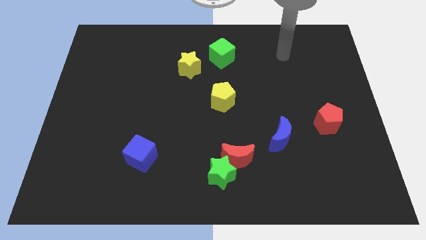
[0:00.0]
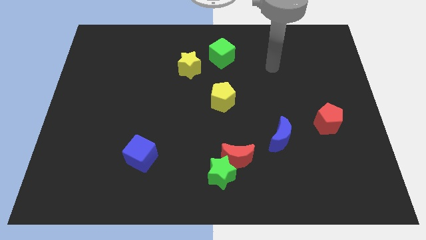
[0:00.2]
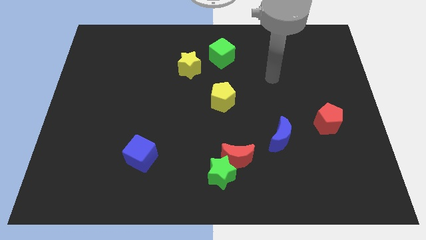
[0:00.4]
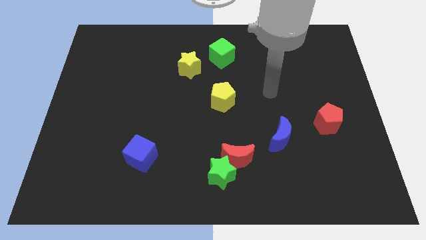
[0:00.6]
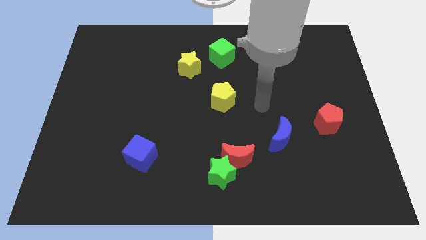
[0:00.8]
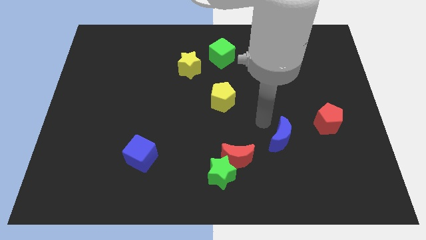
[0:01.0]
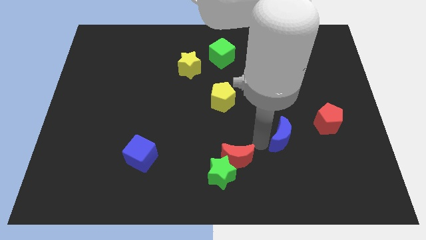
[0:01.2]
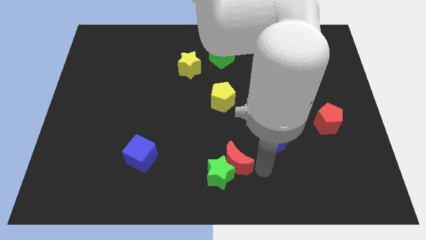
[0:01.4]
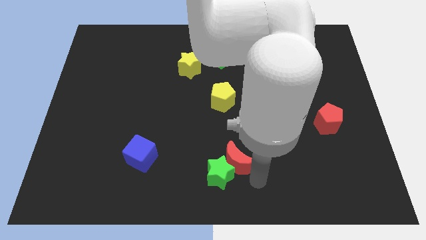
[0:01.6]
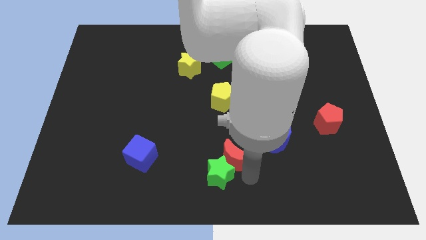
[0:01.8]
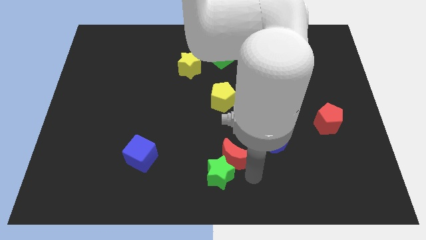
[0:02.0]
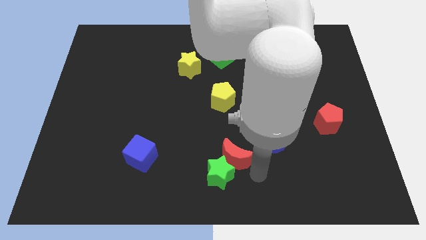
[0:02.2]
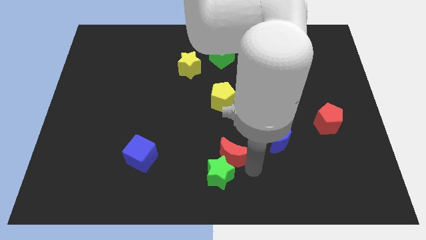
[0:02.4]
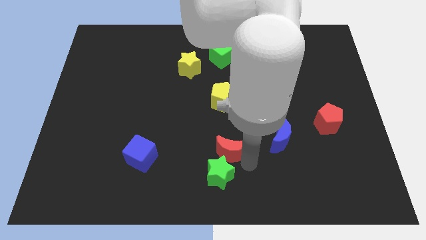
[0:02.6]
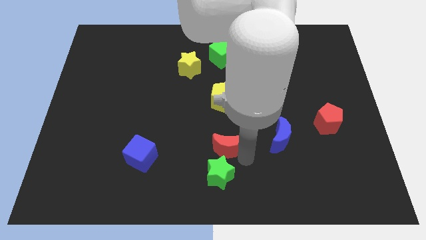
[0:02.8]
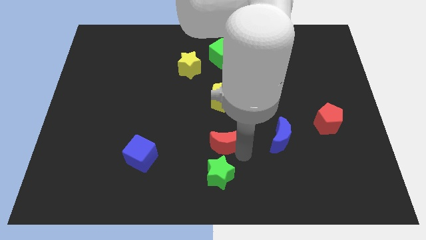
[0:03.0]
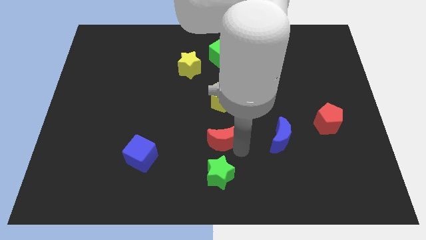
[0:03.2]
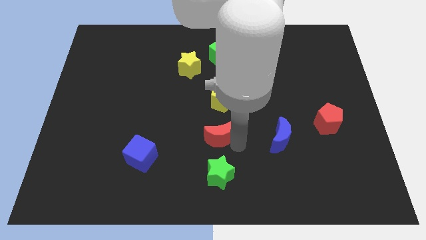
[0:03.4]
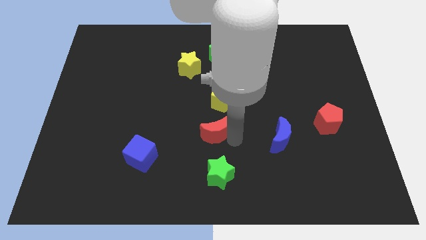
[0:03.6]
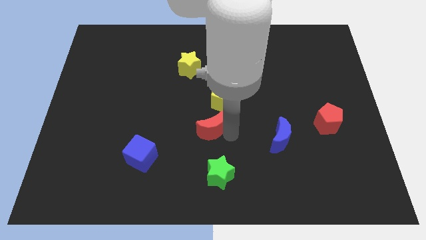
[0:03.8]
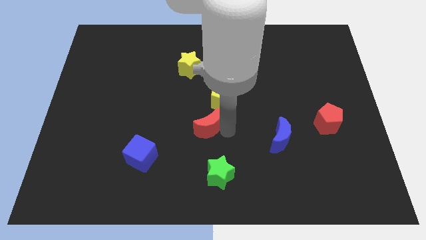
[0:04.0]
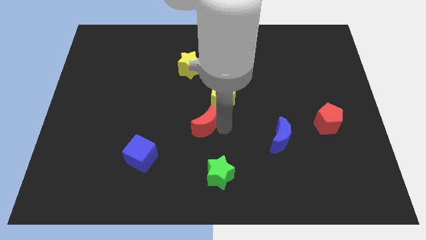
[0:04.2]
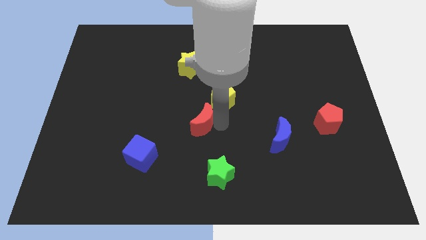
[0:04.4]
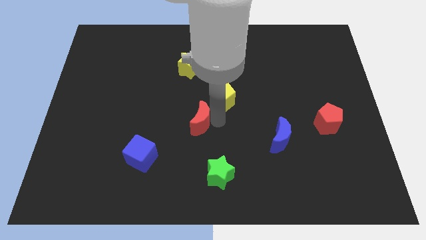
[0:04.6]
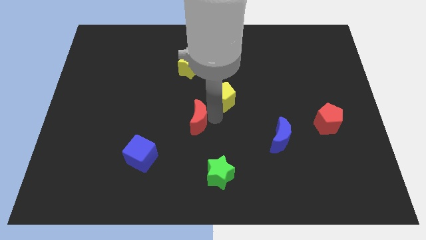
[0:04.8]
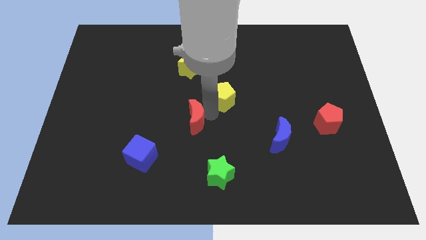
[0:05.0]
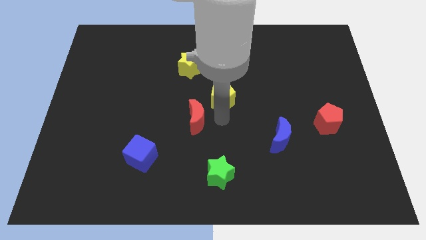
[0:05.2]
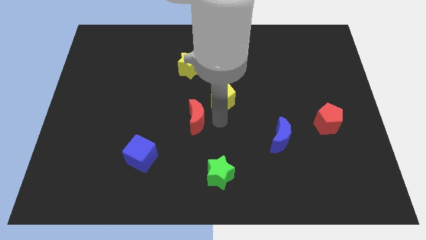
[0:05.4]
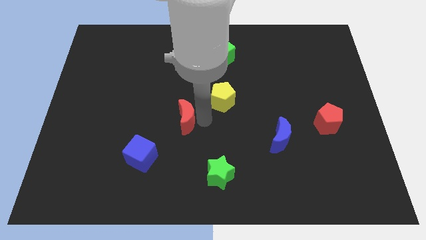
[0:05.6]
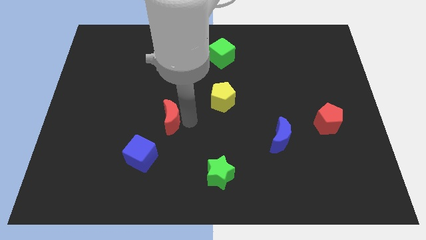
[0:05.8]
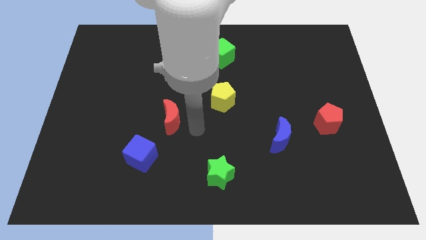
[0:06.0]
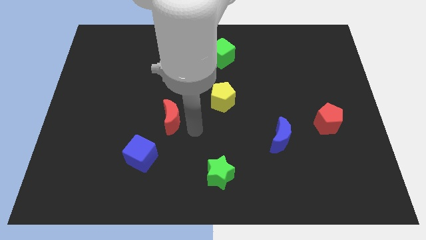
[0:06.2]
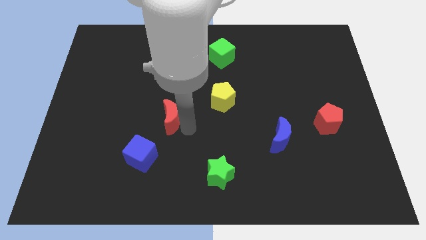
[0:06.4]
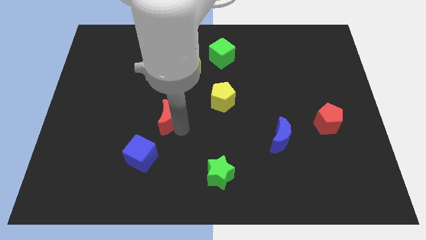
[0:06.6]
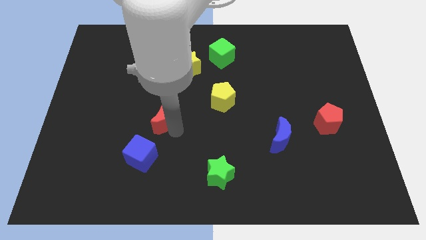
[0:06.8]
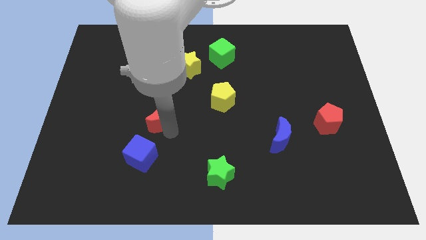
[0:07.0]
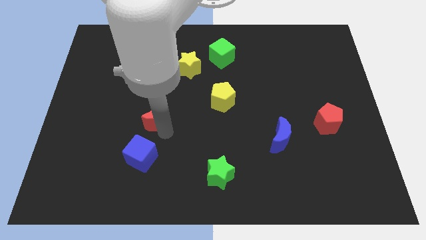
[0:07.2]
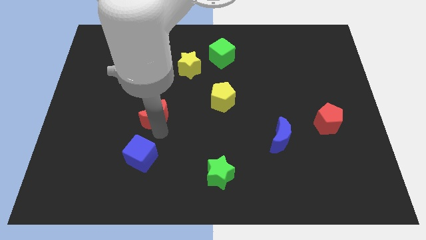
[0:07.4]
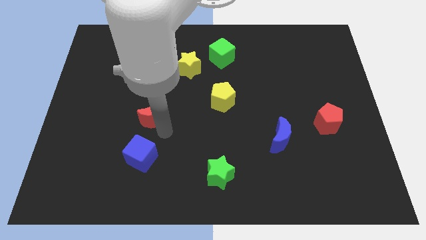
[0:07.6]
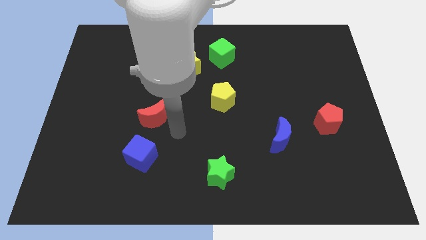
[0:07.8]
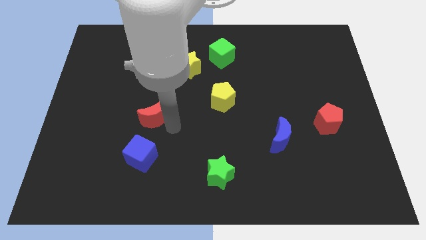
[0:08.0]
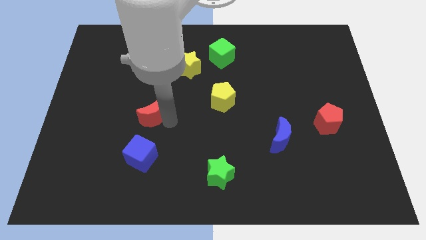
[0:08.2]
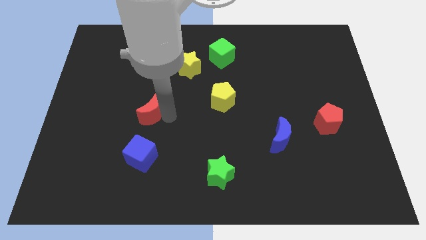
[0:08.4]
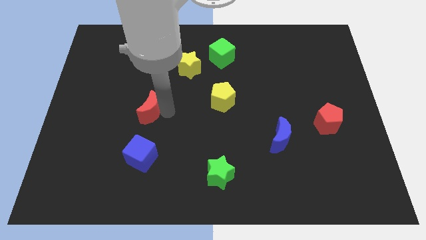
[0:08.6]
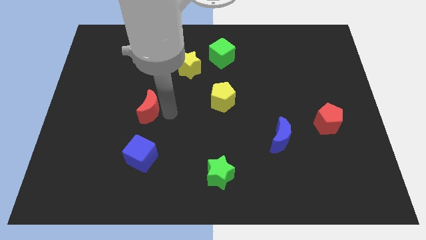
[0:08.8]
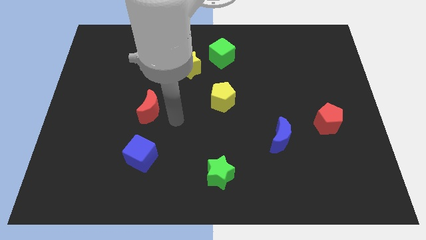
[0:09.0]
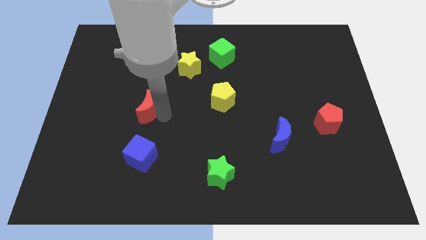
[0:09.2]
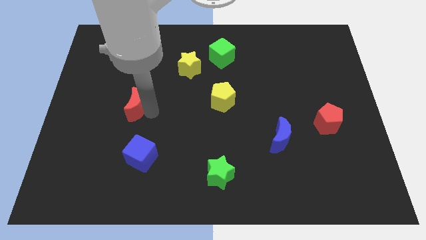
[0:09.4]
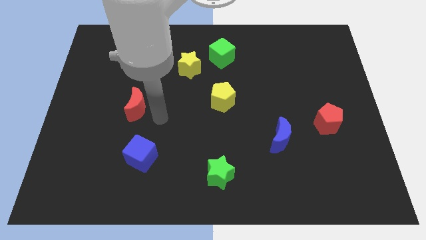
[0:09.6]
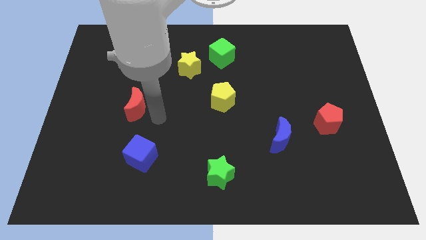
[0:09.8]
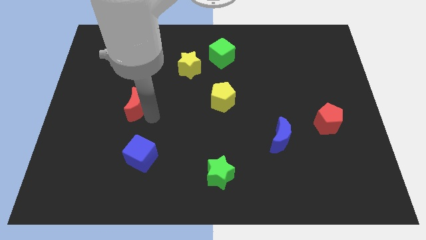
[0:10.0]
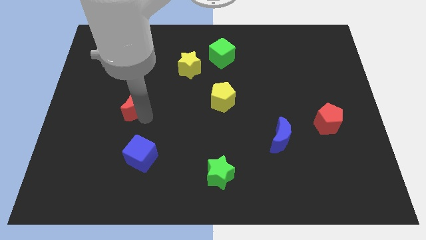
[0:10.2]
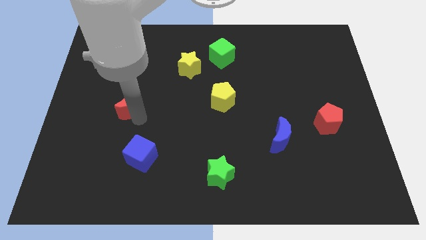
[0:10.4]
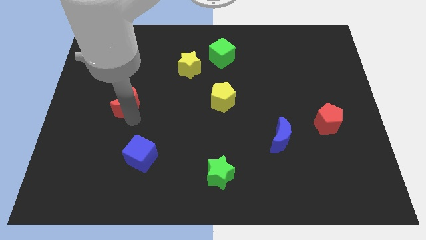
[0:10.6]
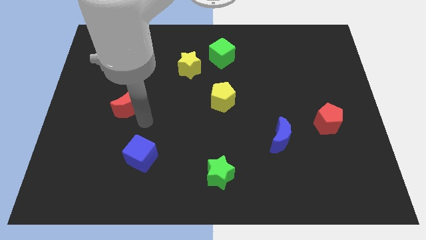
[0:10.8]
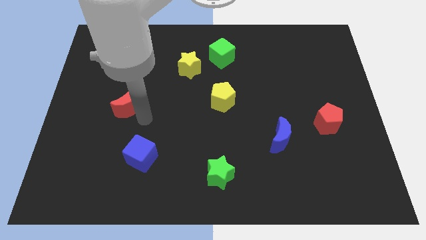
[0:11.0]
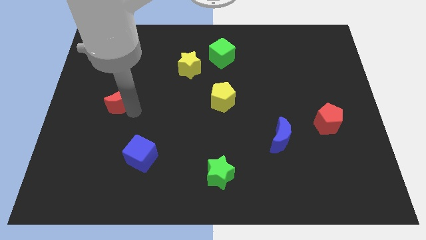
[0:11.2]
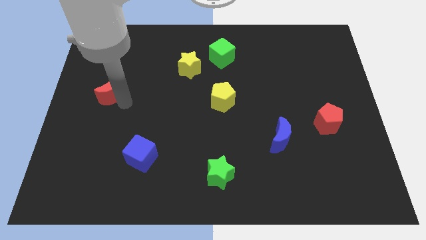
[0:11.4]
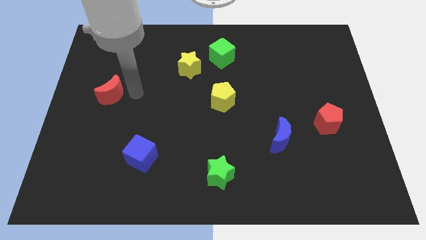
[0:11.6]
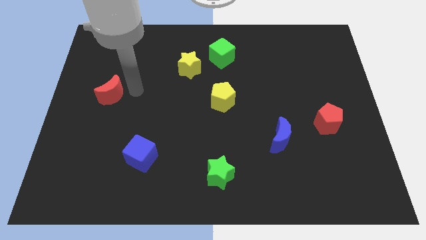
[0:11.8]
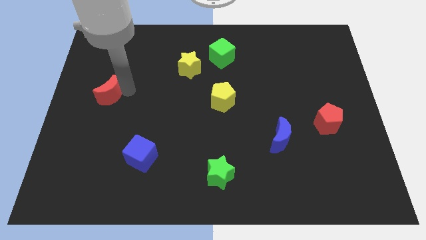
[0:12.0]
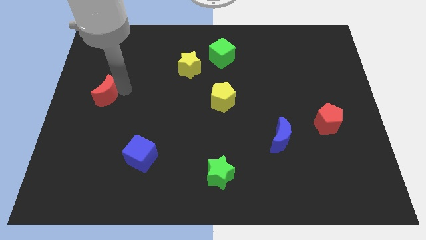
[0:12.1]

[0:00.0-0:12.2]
put the red moon to the left side
